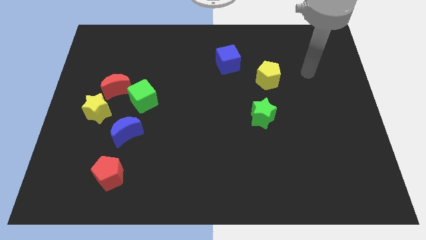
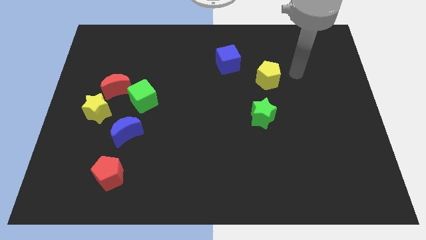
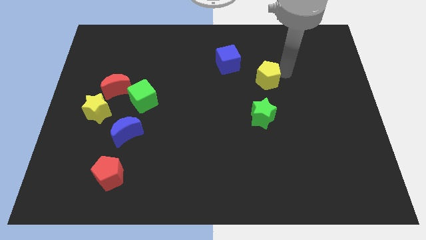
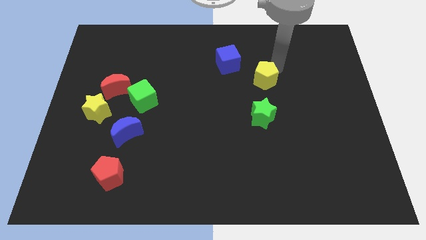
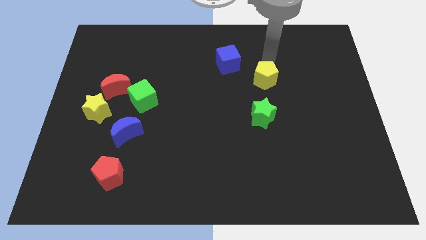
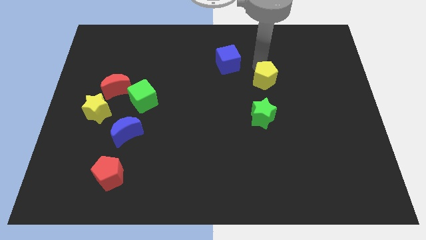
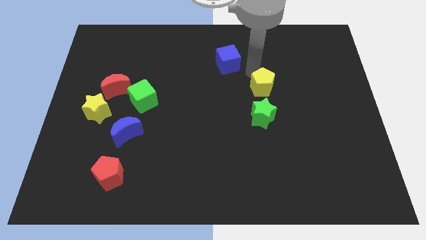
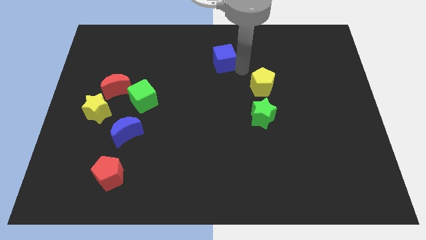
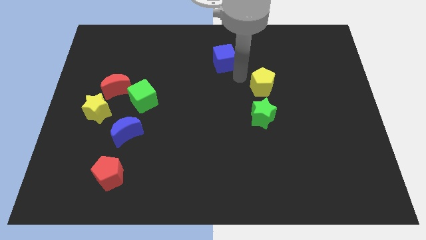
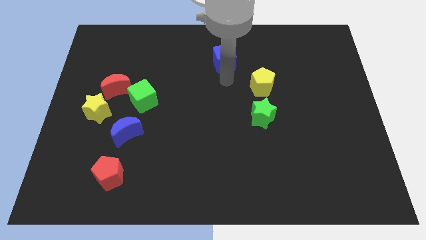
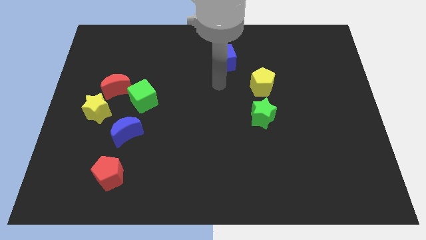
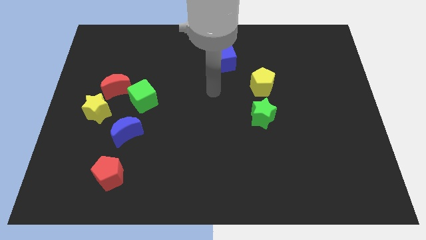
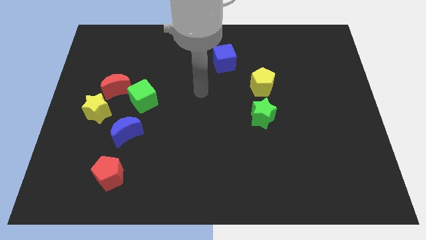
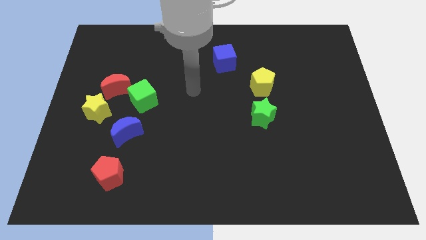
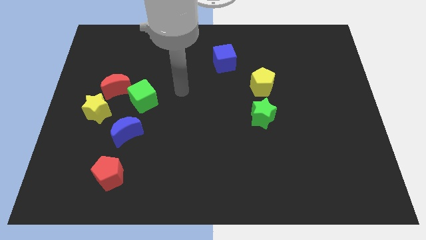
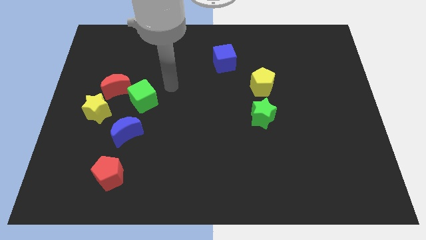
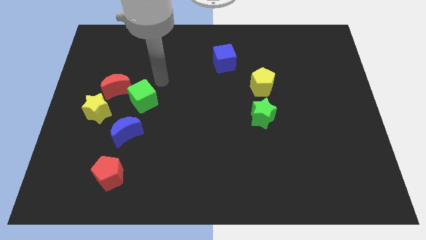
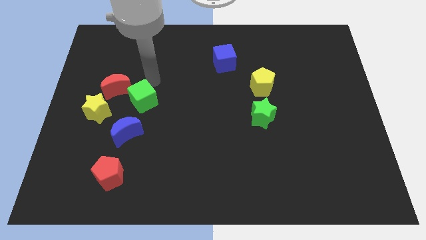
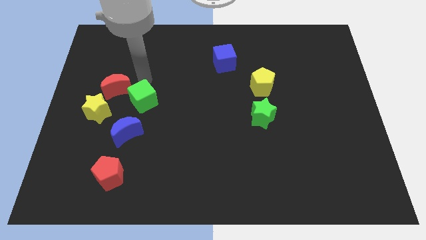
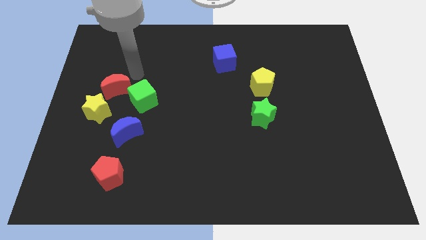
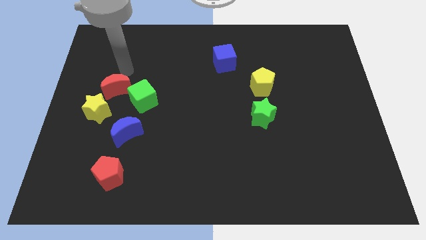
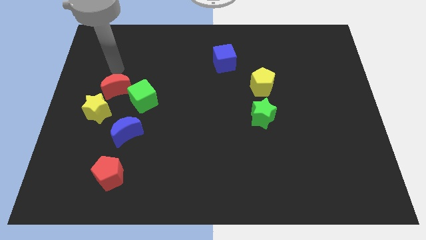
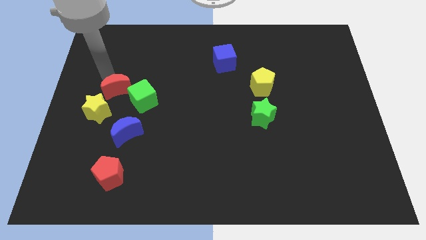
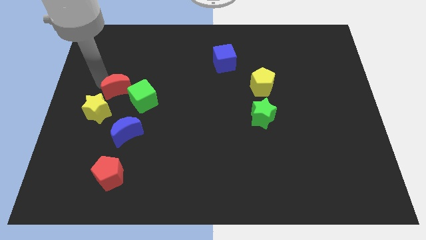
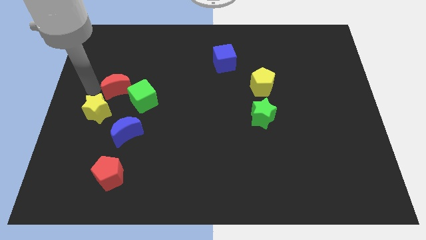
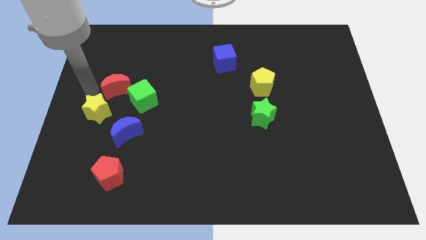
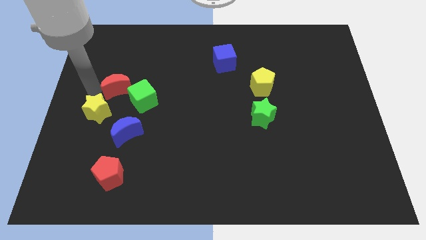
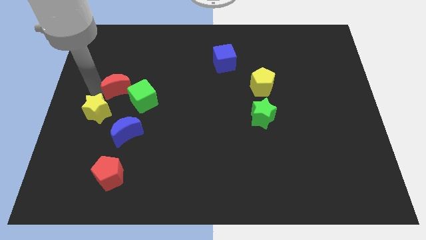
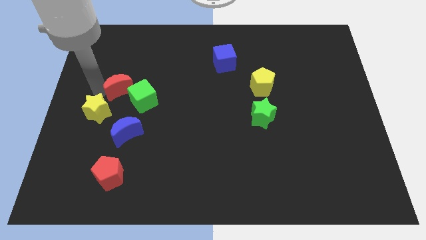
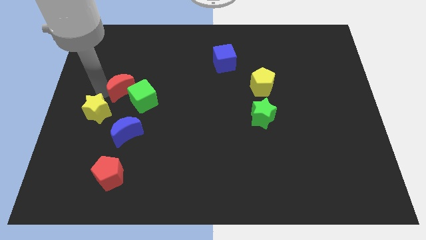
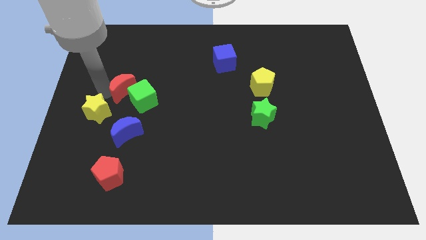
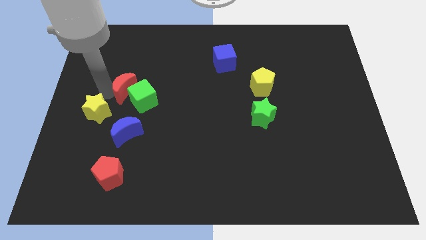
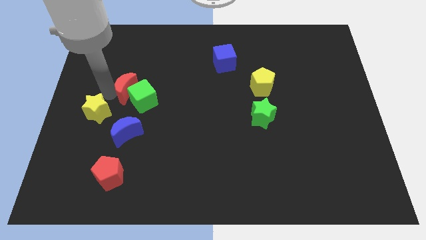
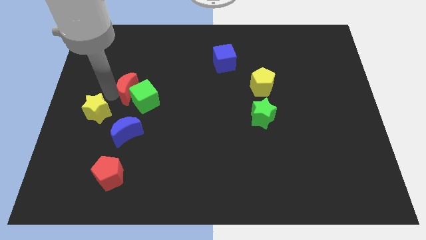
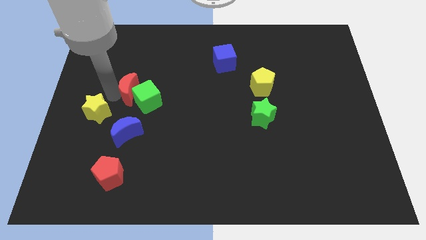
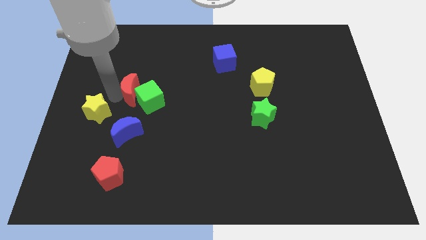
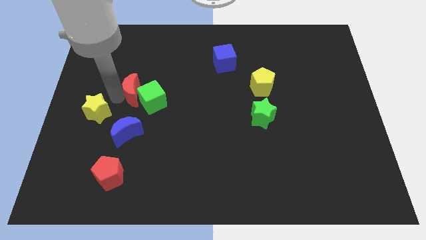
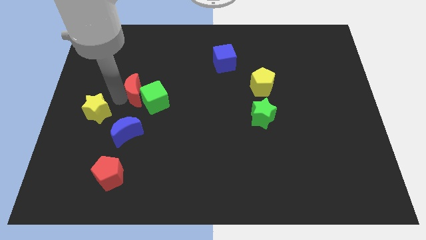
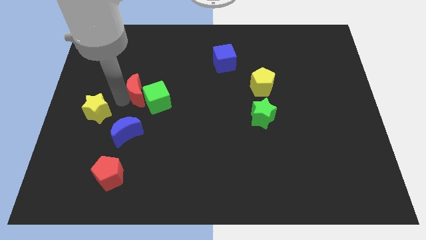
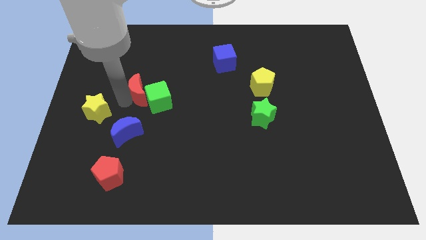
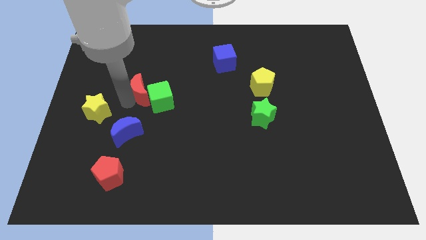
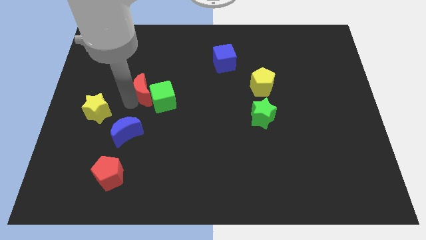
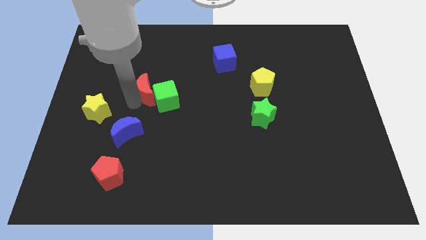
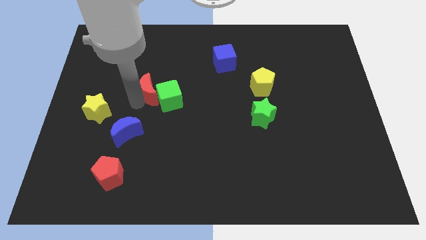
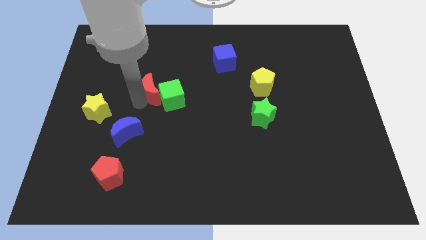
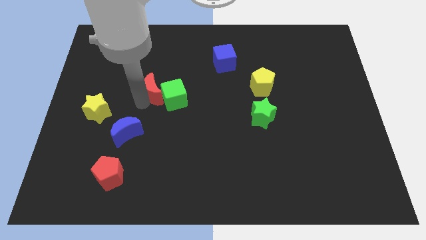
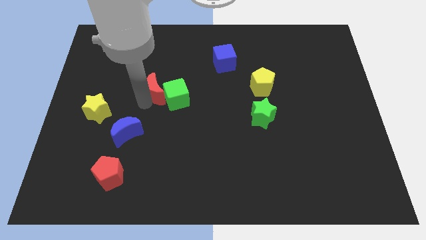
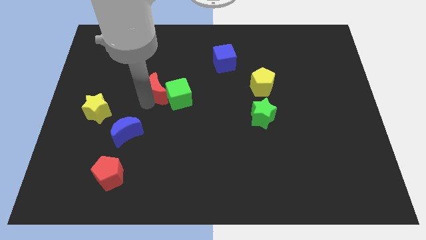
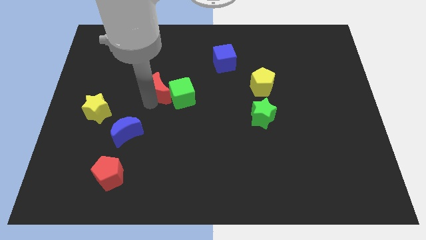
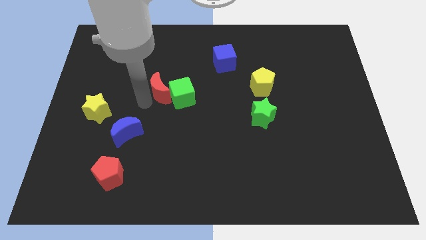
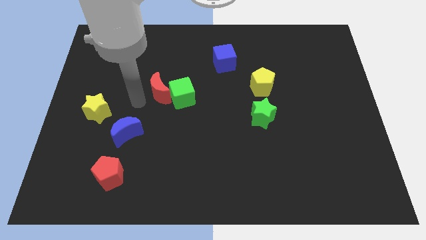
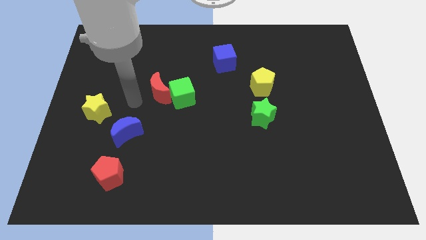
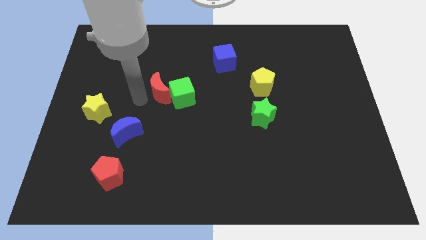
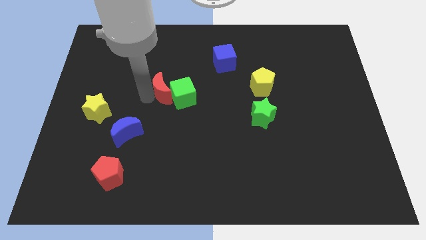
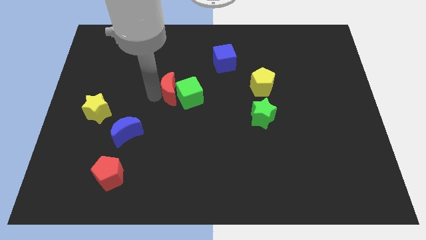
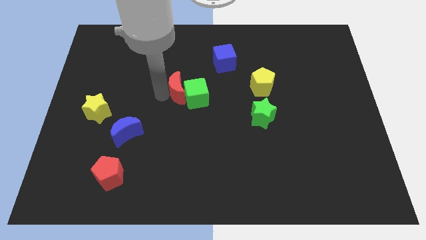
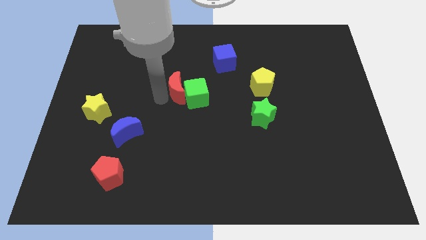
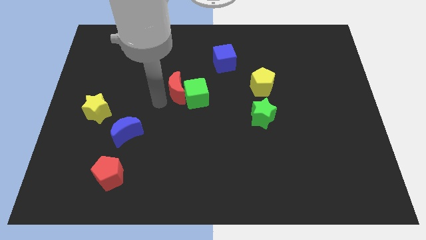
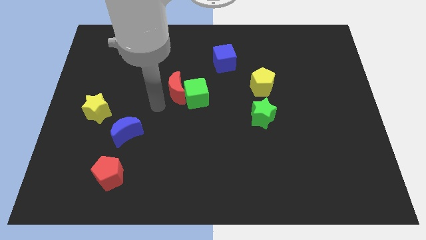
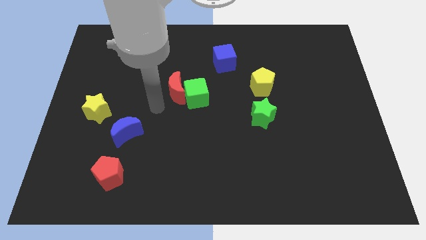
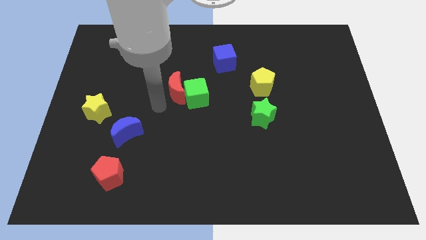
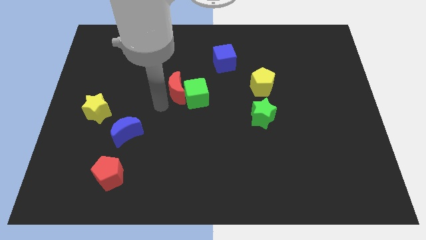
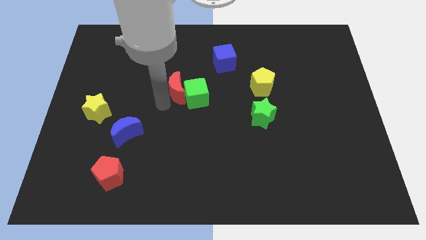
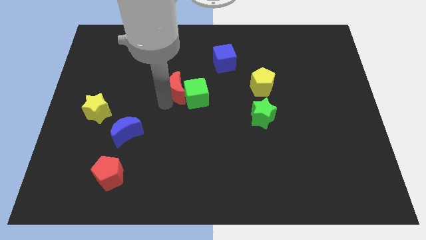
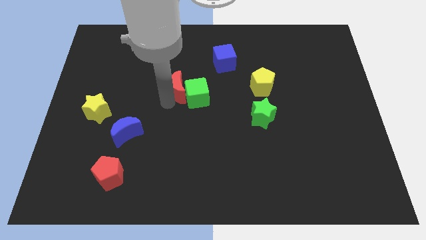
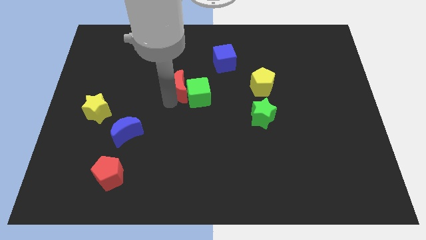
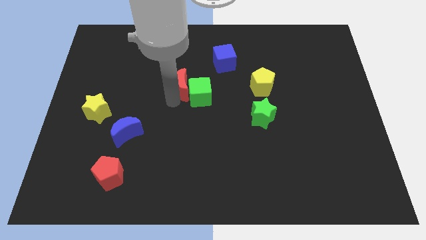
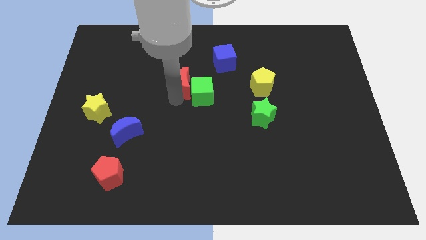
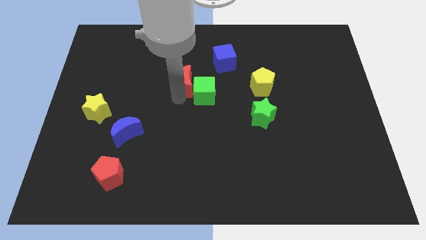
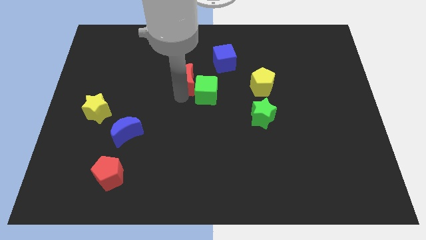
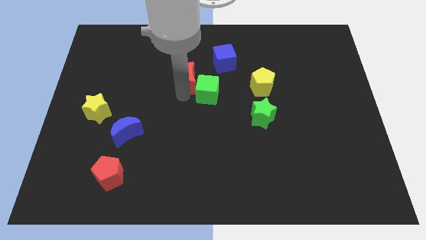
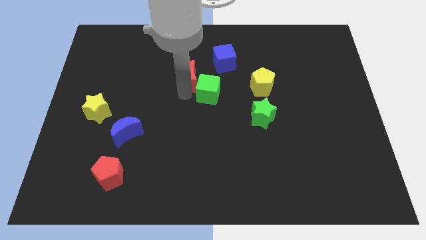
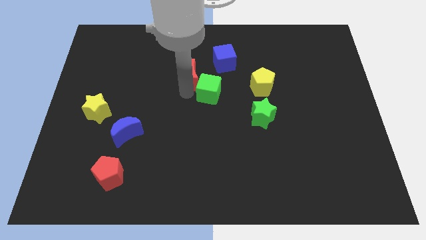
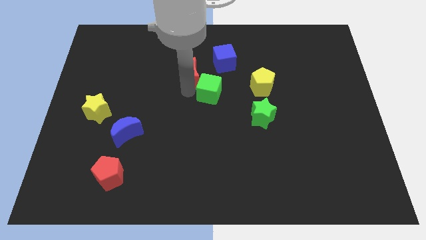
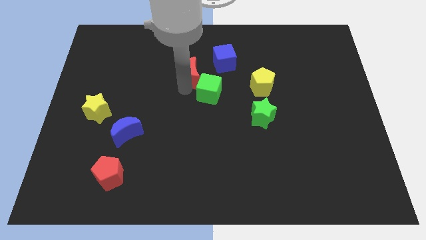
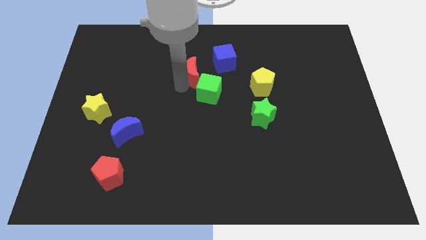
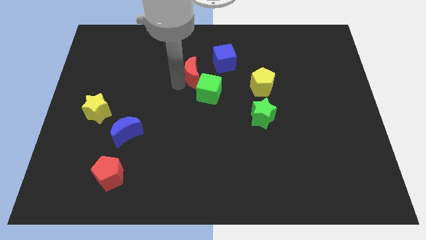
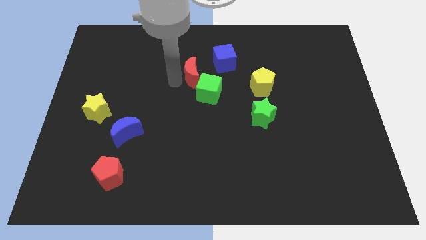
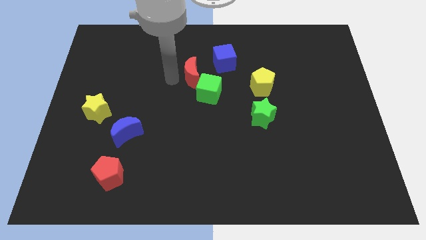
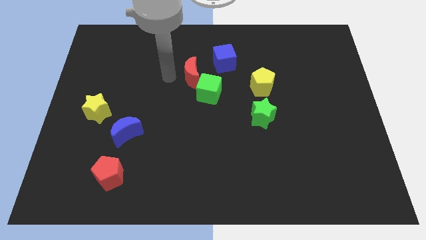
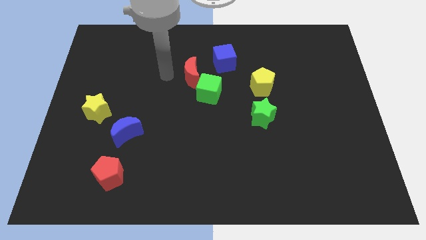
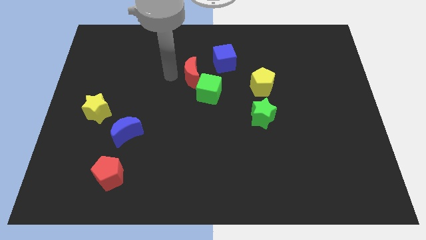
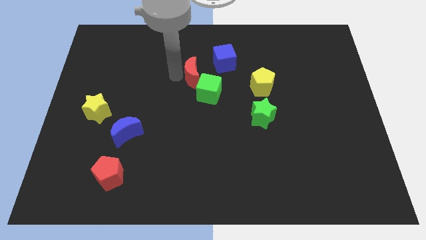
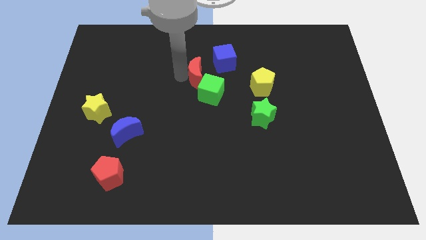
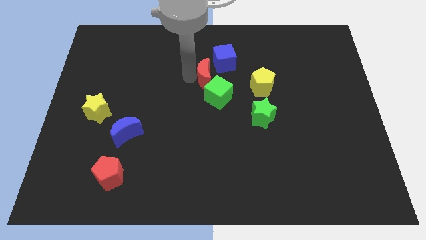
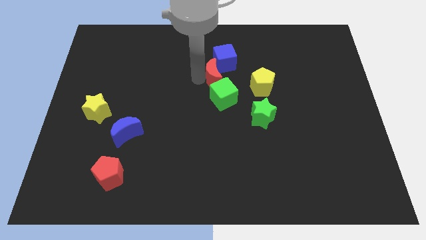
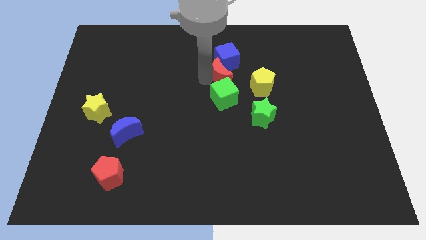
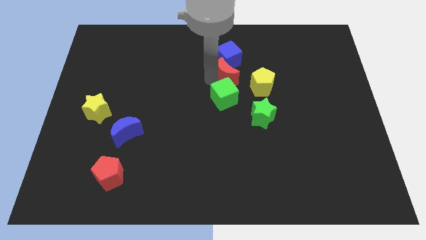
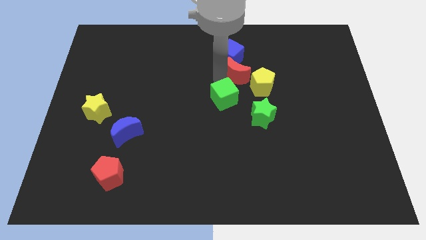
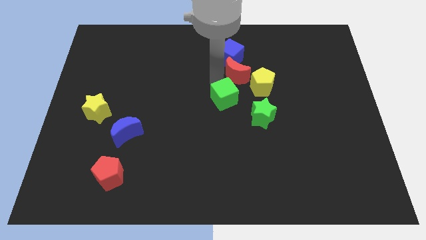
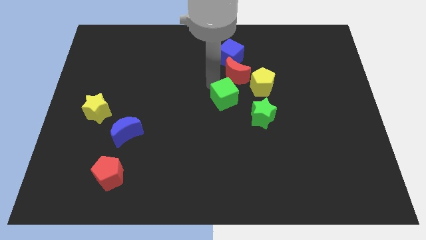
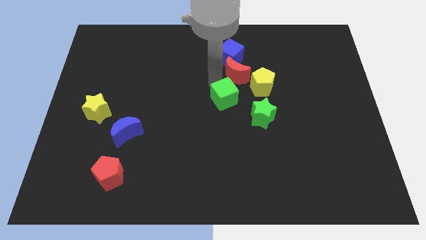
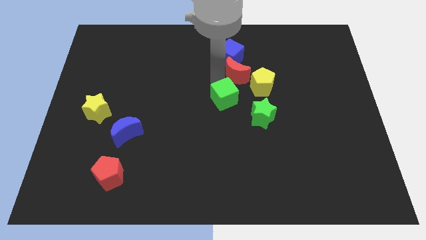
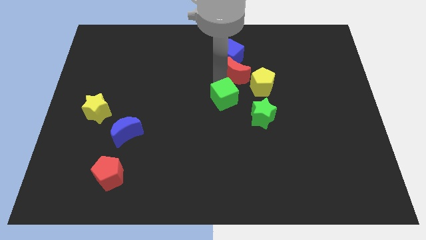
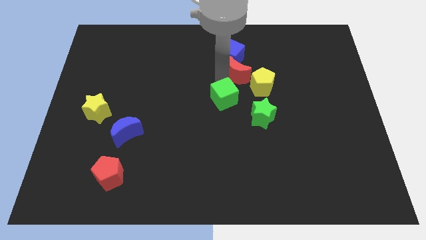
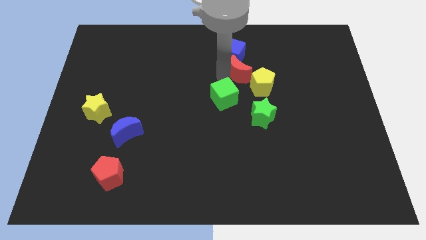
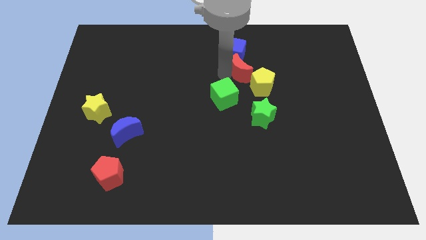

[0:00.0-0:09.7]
slide the red moon above the green star
